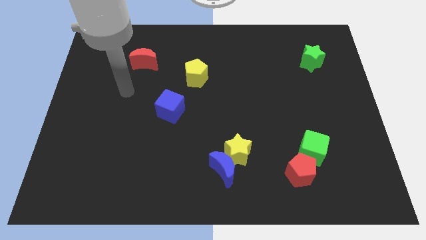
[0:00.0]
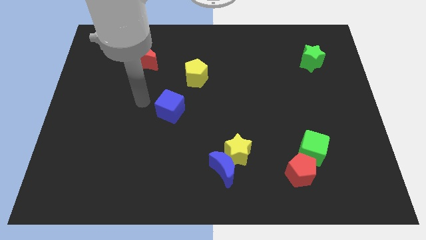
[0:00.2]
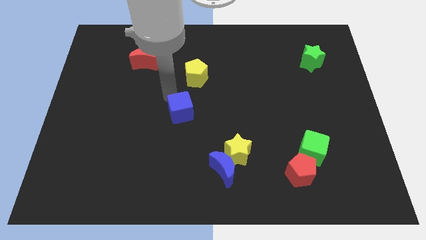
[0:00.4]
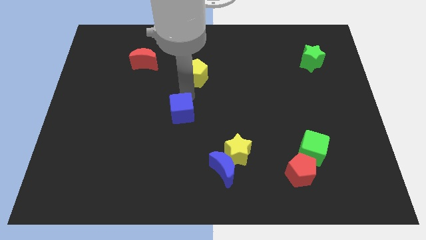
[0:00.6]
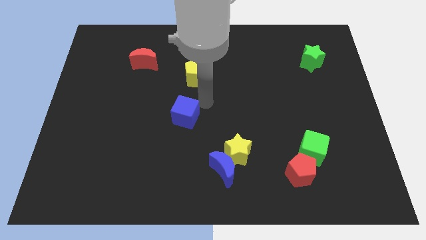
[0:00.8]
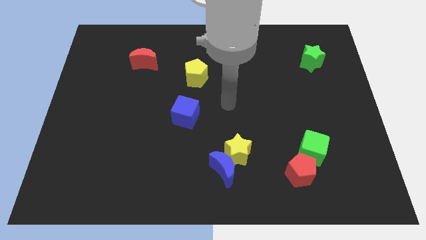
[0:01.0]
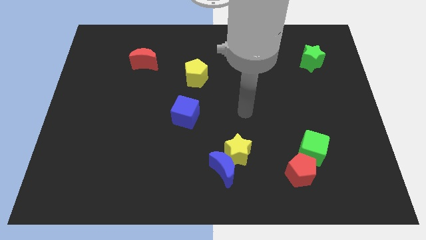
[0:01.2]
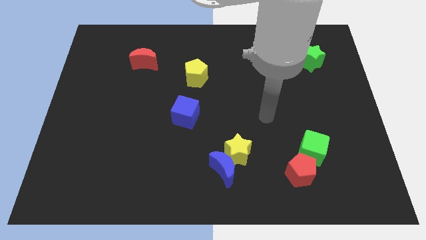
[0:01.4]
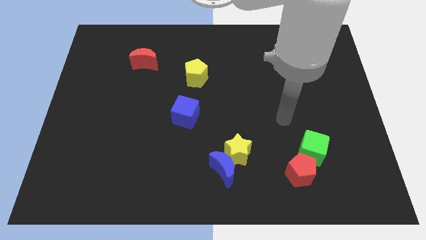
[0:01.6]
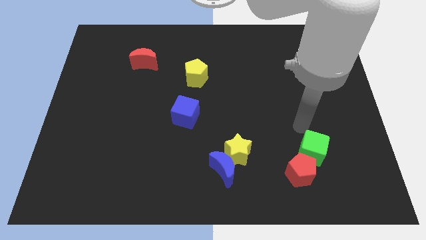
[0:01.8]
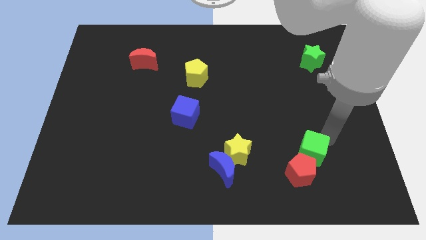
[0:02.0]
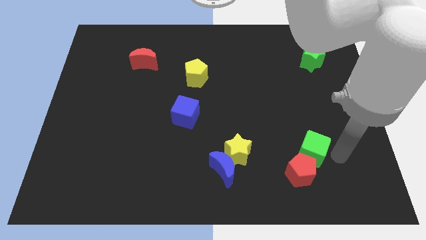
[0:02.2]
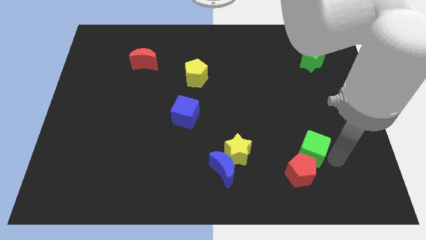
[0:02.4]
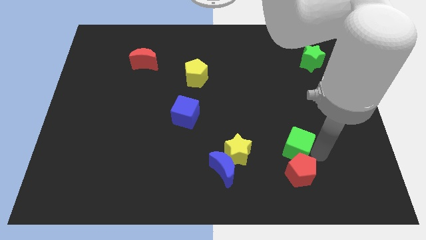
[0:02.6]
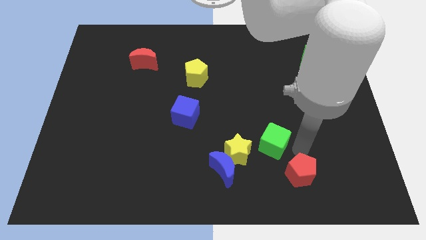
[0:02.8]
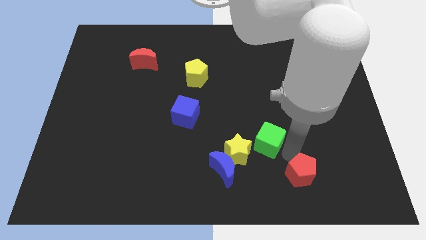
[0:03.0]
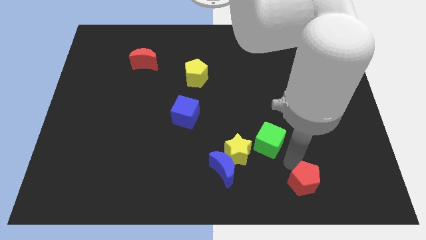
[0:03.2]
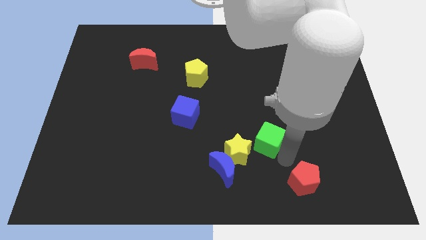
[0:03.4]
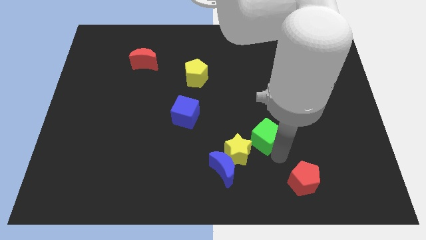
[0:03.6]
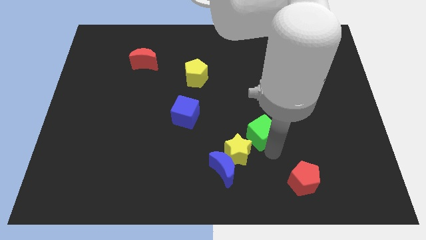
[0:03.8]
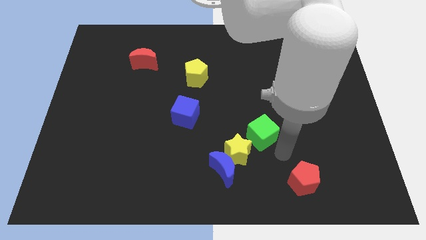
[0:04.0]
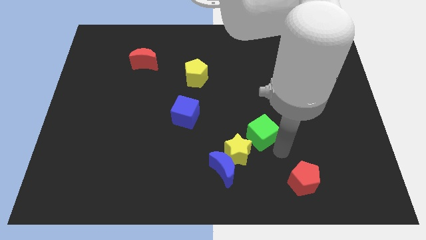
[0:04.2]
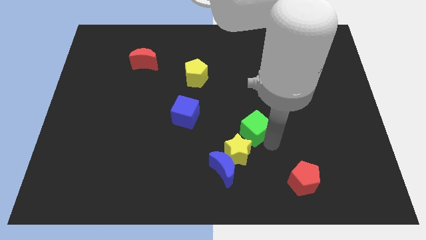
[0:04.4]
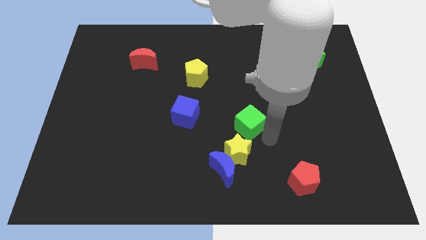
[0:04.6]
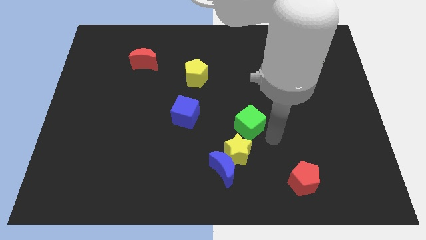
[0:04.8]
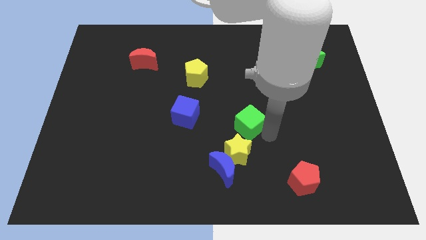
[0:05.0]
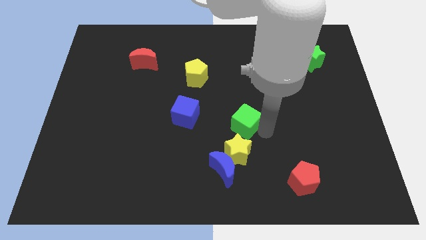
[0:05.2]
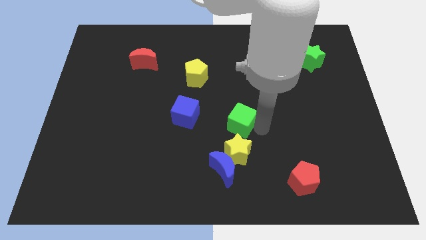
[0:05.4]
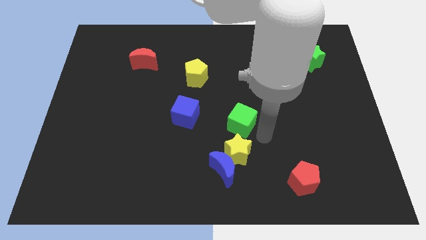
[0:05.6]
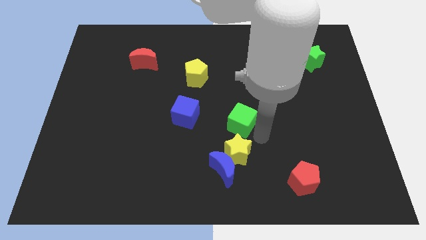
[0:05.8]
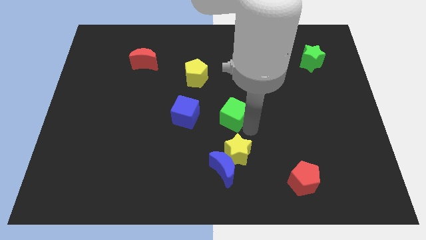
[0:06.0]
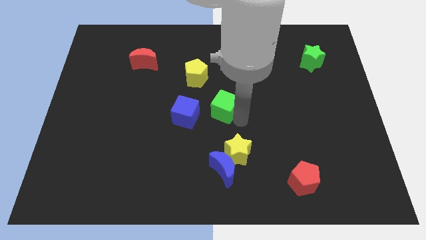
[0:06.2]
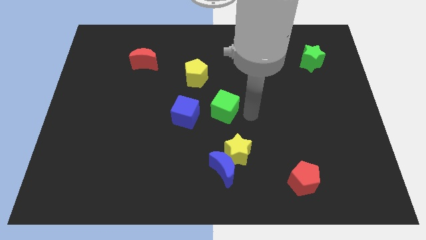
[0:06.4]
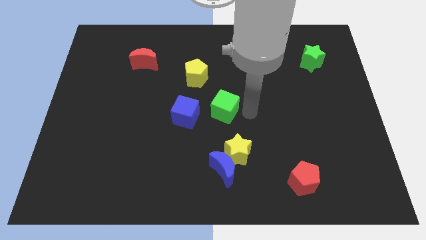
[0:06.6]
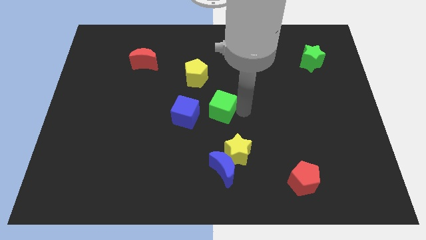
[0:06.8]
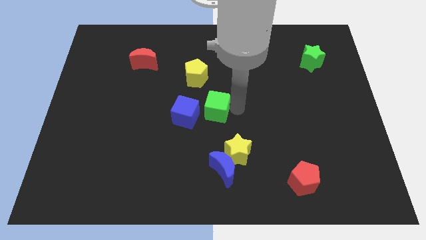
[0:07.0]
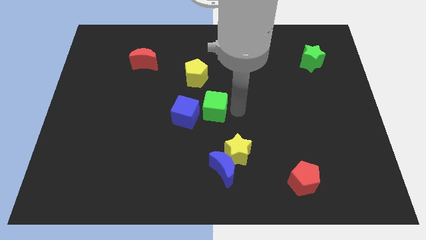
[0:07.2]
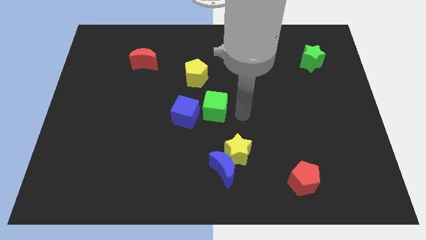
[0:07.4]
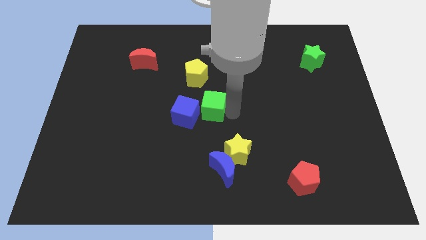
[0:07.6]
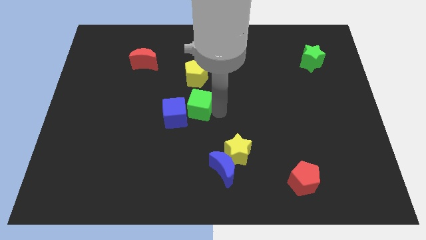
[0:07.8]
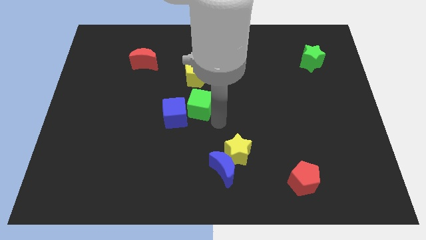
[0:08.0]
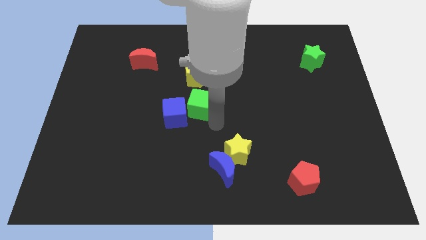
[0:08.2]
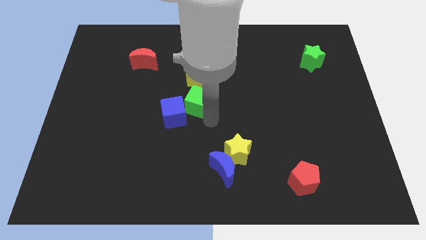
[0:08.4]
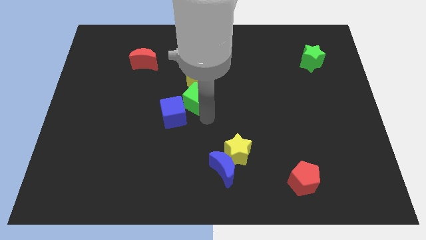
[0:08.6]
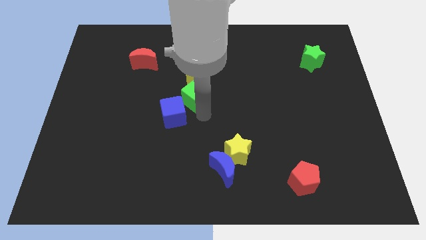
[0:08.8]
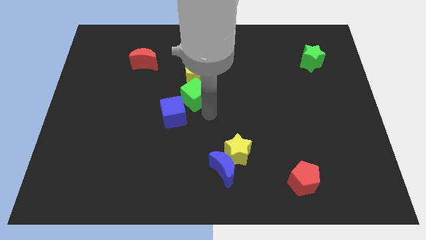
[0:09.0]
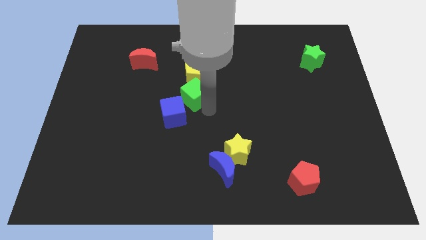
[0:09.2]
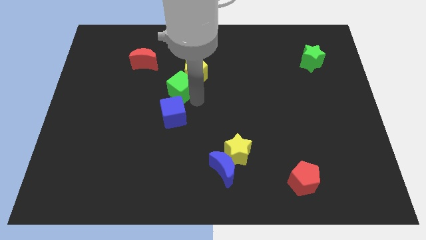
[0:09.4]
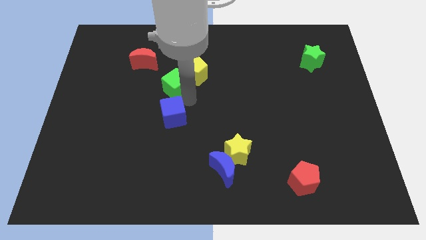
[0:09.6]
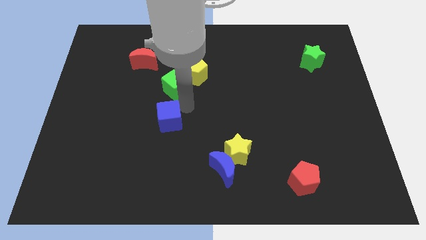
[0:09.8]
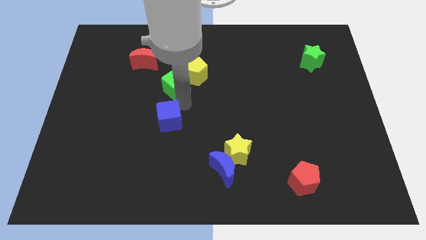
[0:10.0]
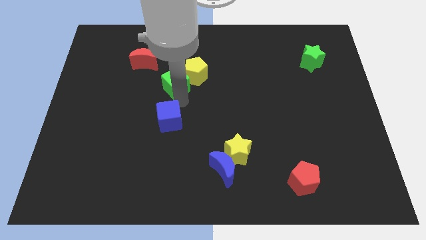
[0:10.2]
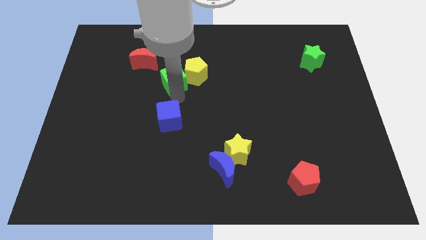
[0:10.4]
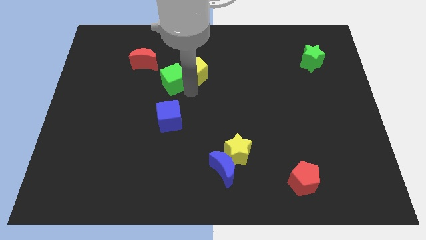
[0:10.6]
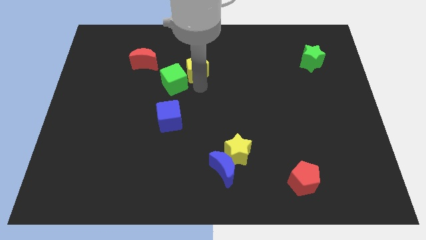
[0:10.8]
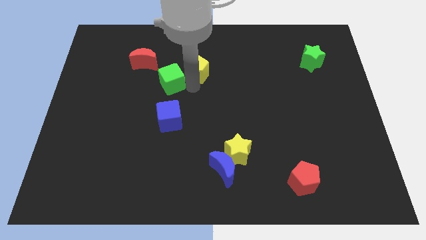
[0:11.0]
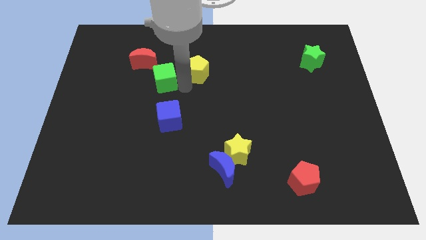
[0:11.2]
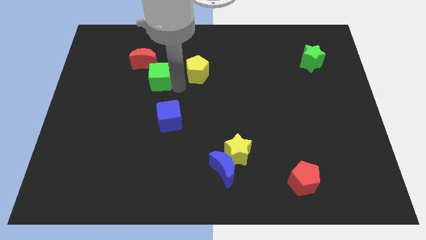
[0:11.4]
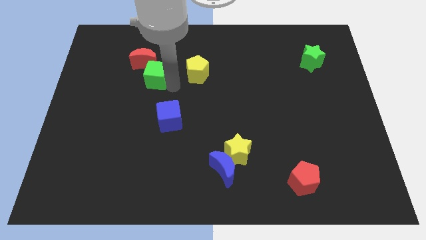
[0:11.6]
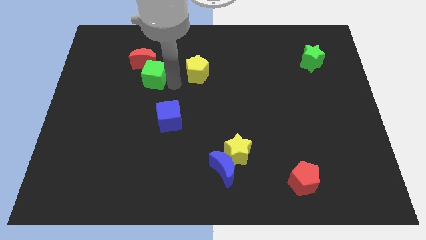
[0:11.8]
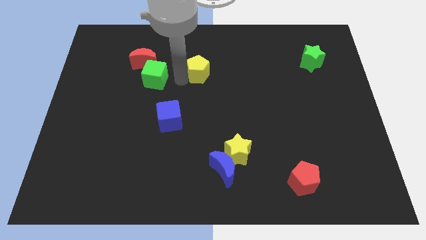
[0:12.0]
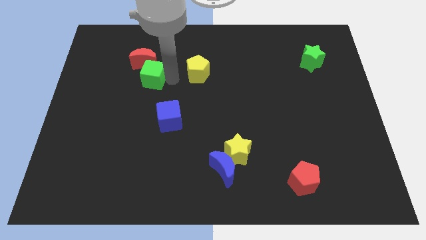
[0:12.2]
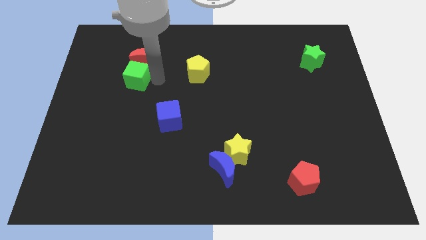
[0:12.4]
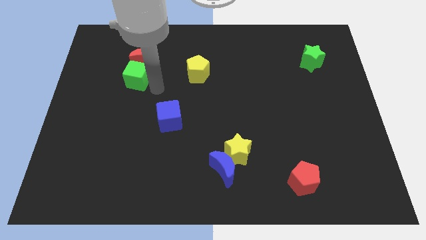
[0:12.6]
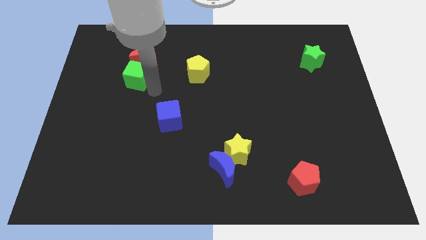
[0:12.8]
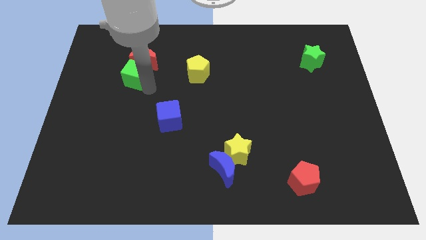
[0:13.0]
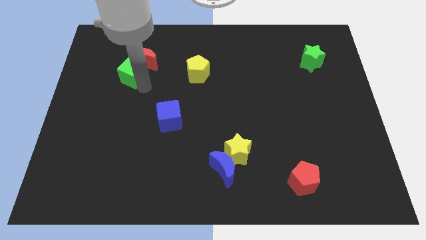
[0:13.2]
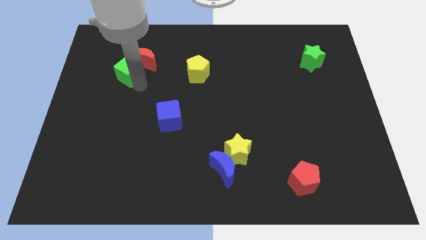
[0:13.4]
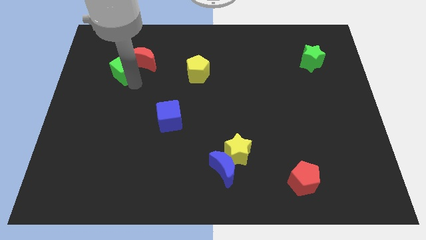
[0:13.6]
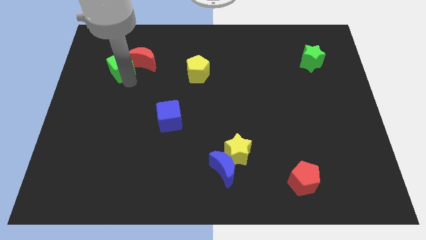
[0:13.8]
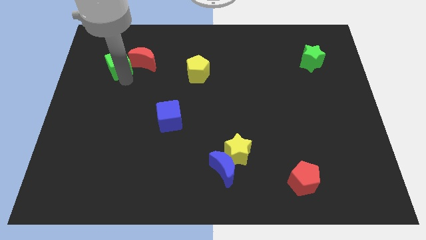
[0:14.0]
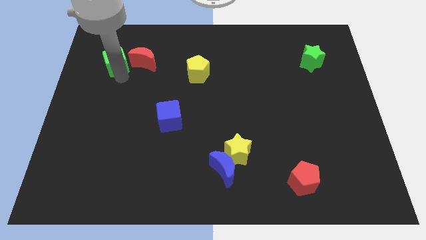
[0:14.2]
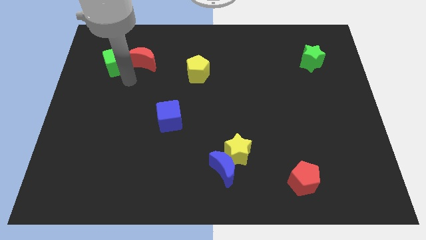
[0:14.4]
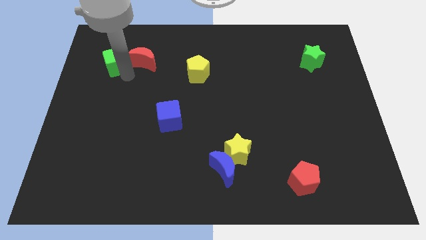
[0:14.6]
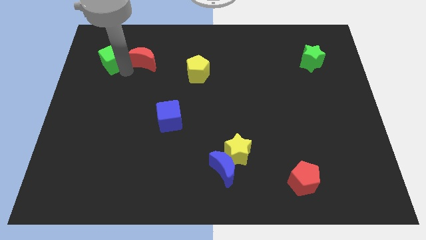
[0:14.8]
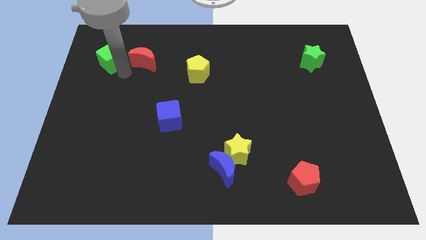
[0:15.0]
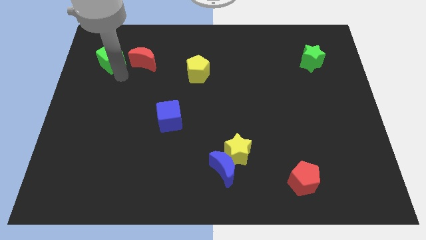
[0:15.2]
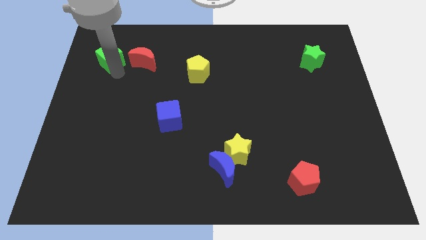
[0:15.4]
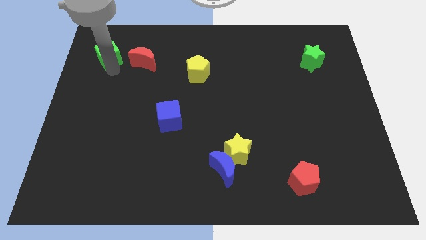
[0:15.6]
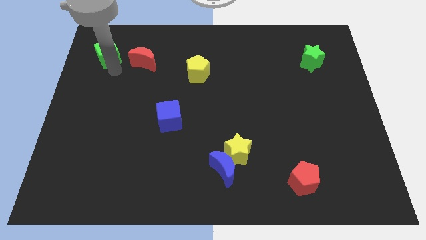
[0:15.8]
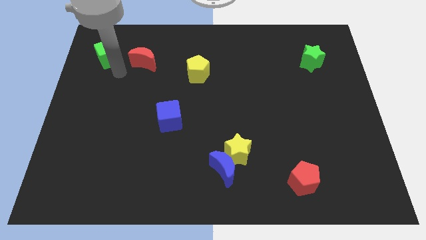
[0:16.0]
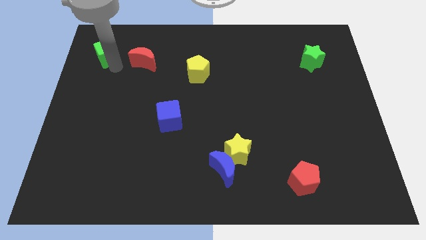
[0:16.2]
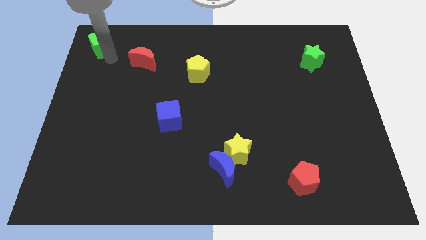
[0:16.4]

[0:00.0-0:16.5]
put the green cube to the top left corner
